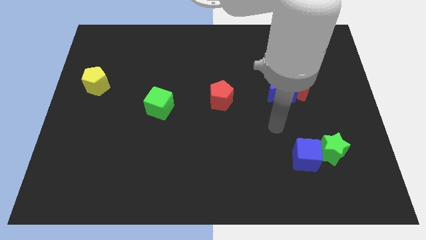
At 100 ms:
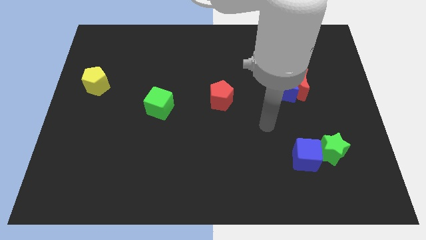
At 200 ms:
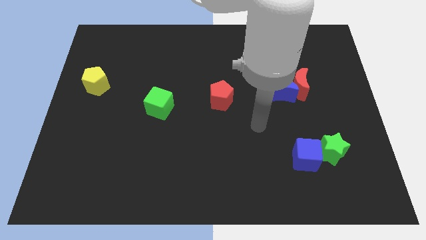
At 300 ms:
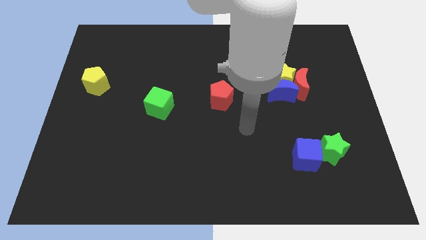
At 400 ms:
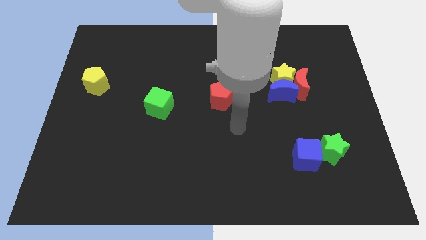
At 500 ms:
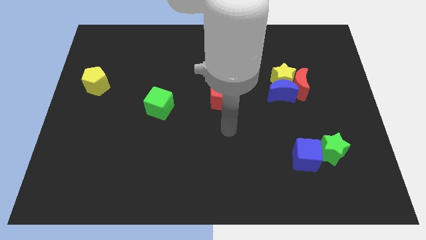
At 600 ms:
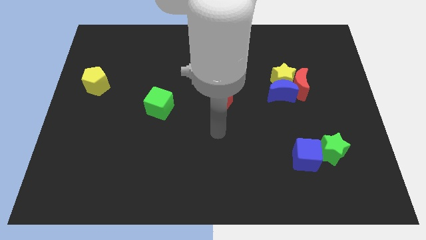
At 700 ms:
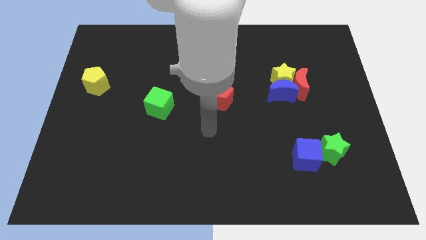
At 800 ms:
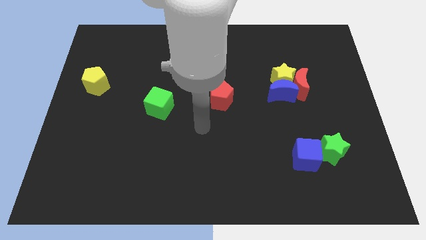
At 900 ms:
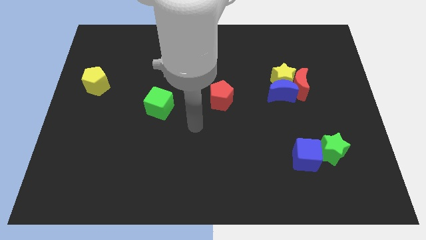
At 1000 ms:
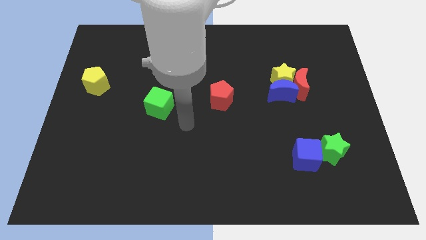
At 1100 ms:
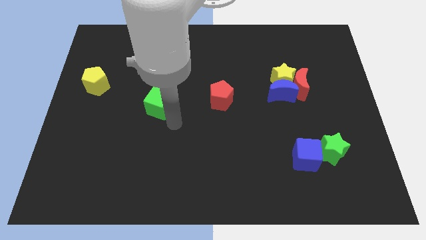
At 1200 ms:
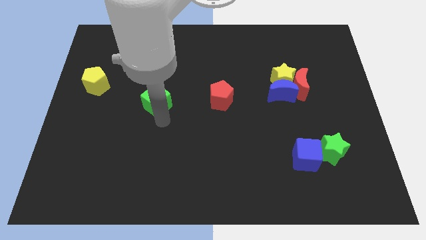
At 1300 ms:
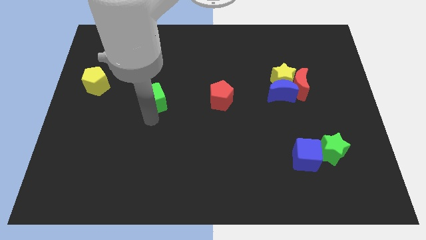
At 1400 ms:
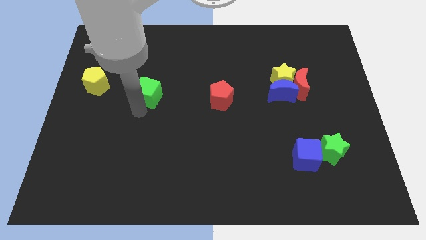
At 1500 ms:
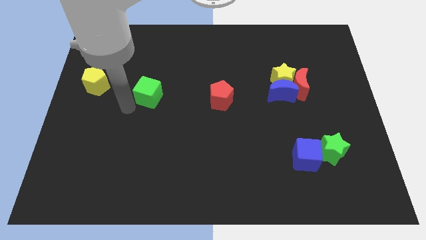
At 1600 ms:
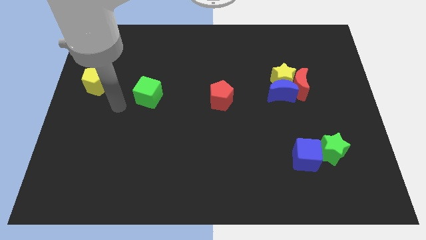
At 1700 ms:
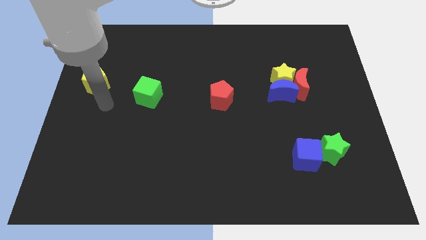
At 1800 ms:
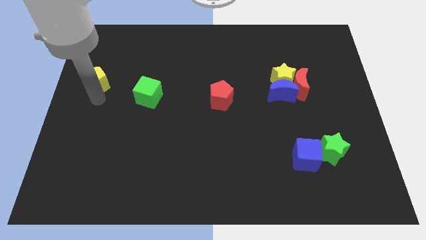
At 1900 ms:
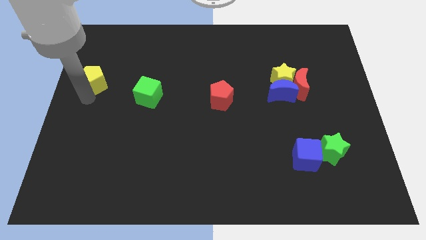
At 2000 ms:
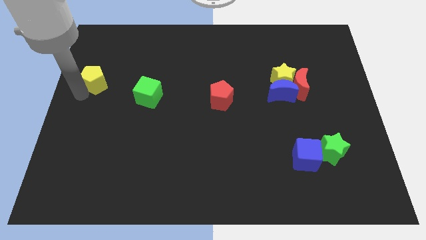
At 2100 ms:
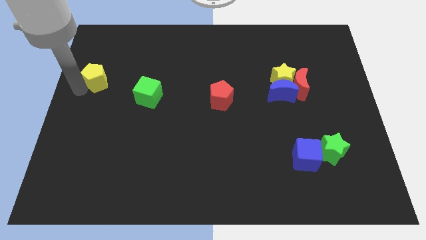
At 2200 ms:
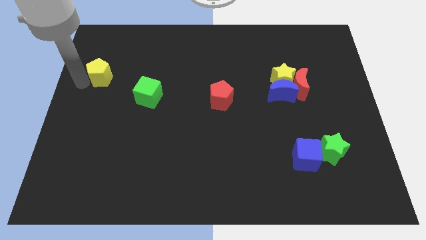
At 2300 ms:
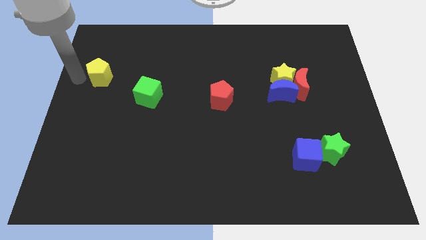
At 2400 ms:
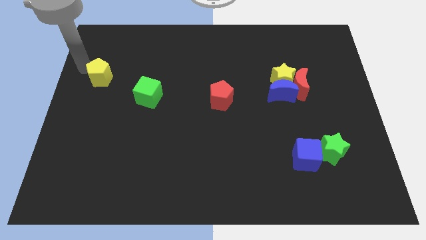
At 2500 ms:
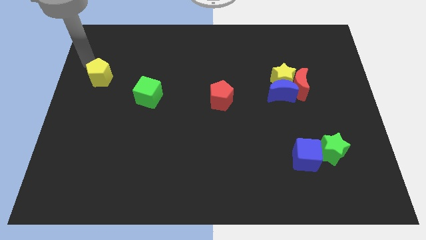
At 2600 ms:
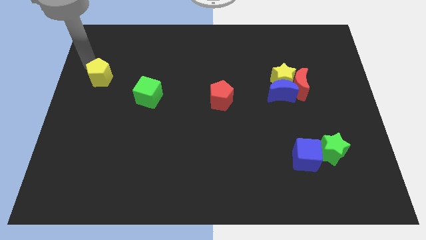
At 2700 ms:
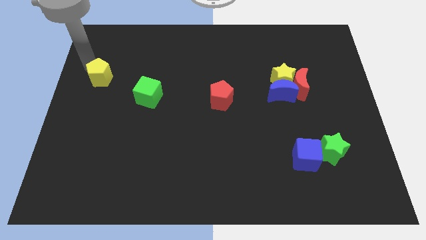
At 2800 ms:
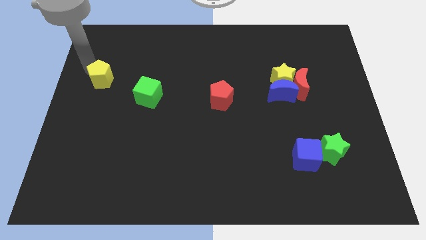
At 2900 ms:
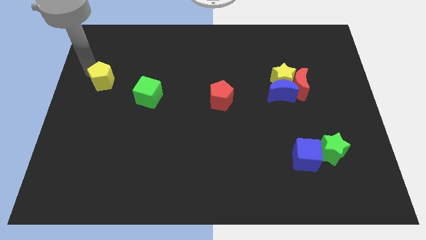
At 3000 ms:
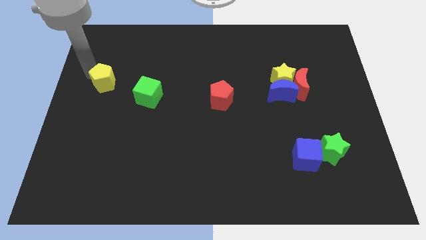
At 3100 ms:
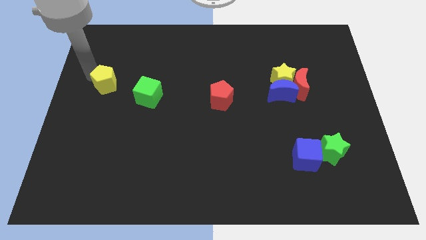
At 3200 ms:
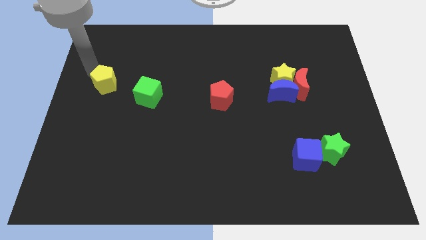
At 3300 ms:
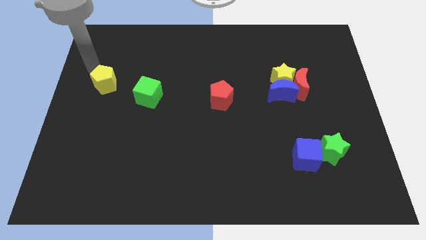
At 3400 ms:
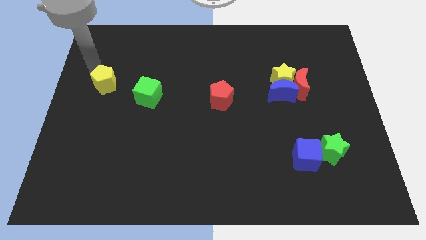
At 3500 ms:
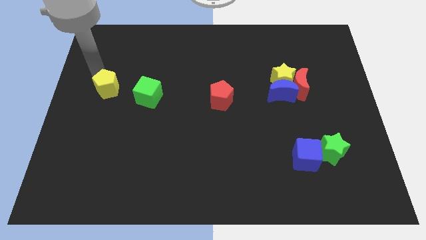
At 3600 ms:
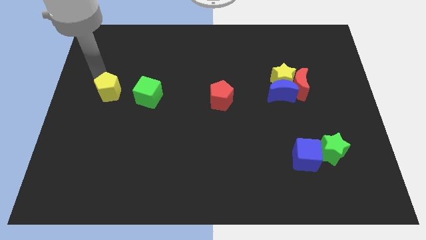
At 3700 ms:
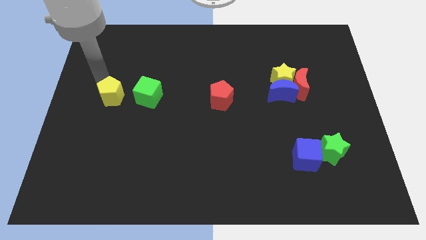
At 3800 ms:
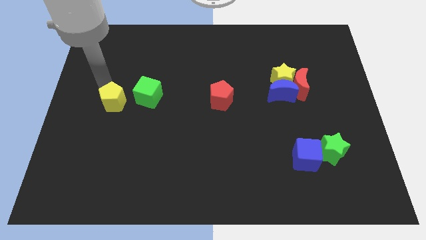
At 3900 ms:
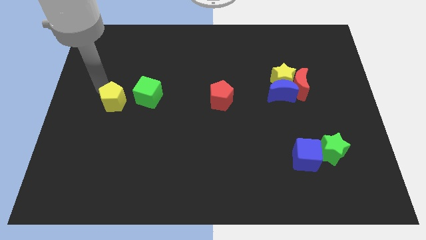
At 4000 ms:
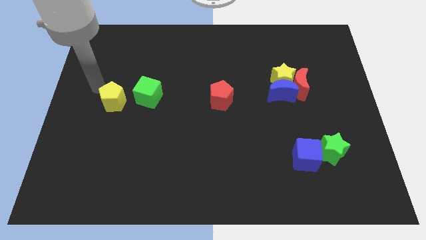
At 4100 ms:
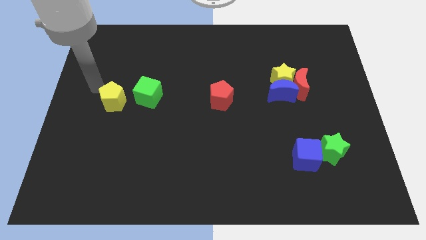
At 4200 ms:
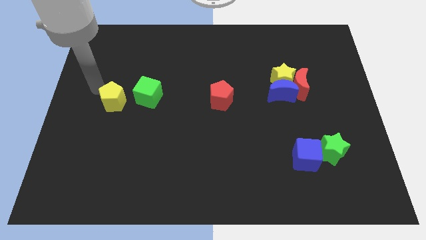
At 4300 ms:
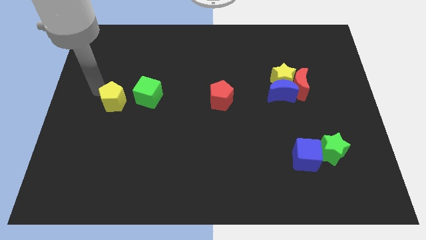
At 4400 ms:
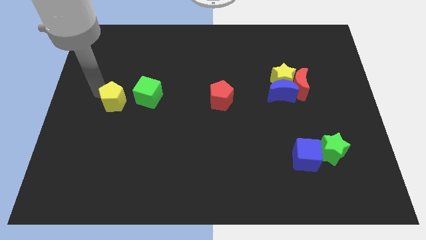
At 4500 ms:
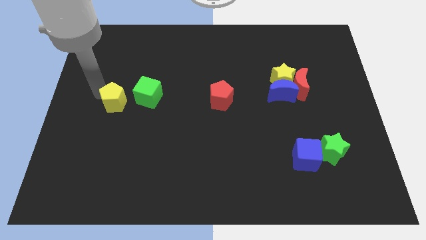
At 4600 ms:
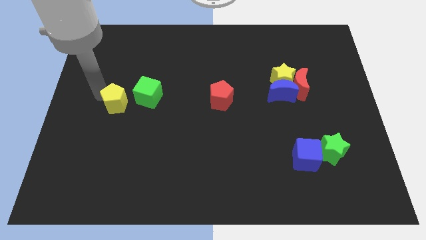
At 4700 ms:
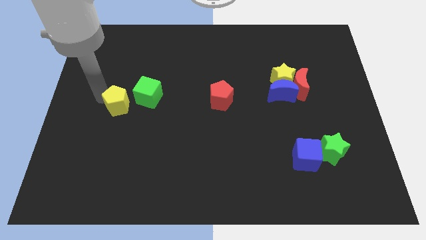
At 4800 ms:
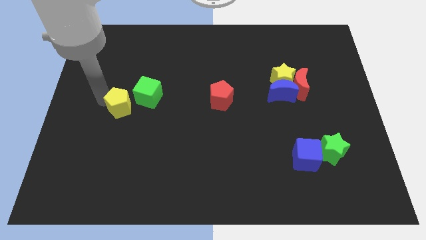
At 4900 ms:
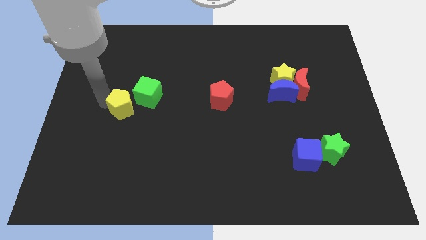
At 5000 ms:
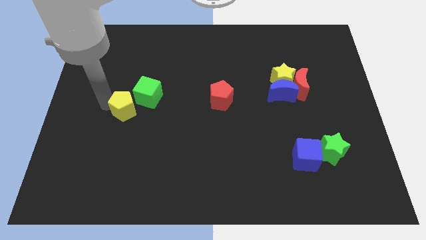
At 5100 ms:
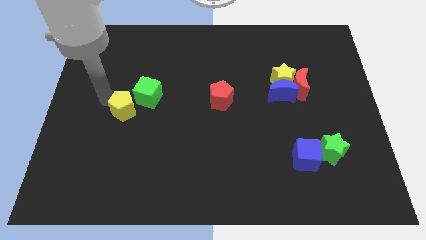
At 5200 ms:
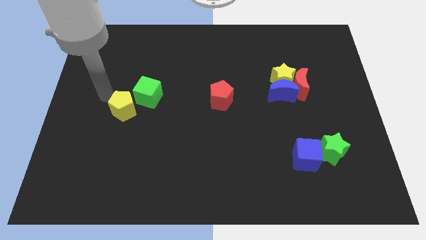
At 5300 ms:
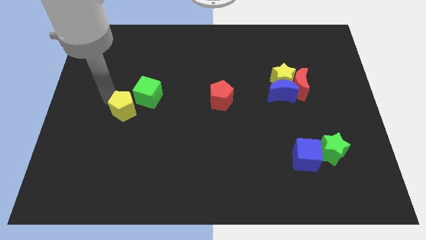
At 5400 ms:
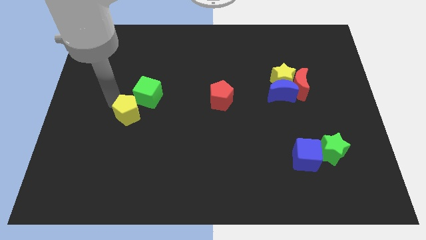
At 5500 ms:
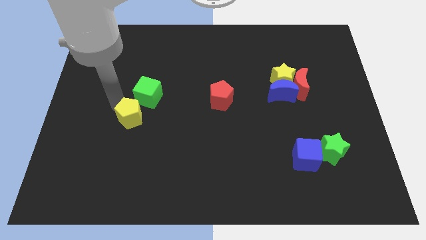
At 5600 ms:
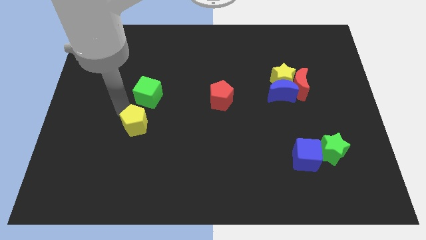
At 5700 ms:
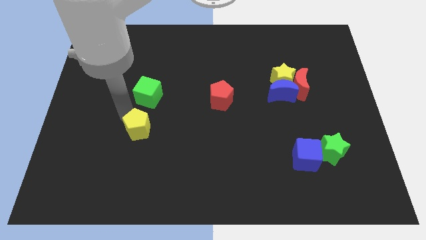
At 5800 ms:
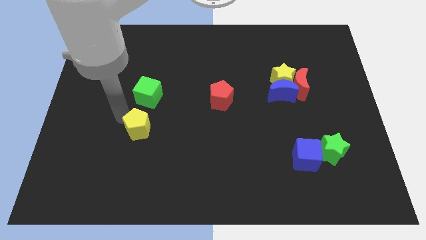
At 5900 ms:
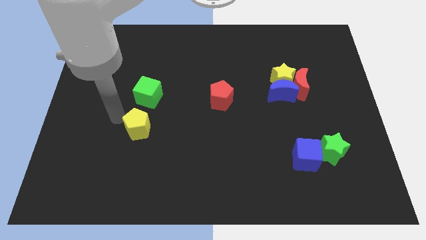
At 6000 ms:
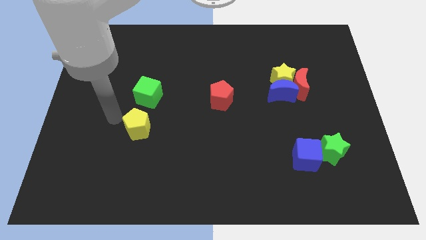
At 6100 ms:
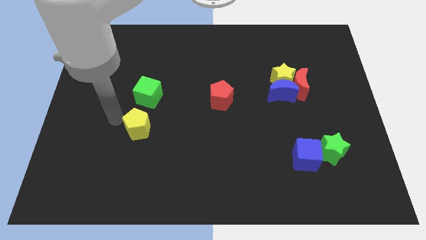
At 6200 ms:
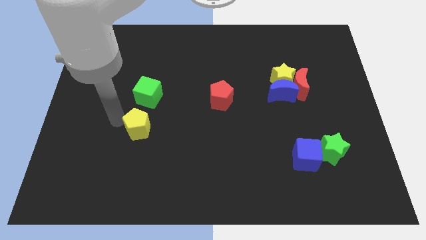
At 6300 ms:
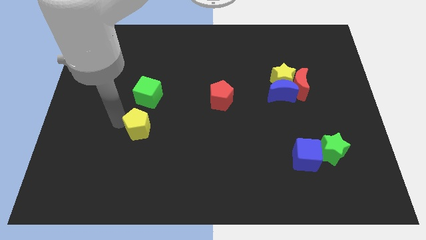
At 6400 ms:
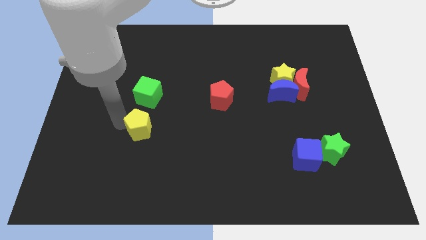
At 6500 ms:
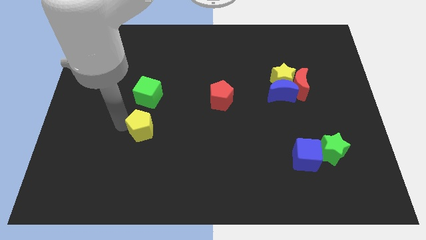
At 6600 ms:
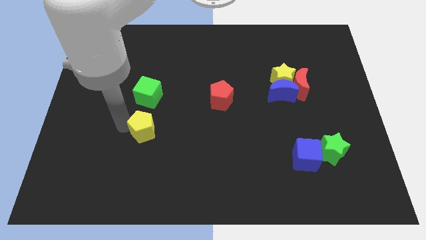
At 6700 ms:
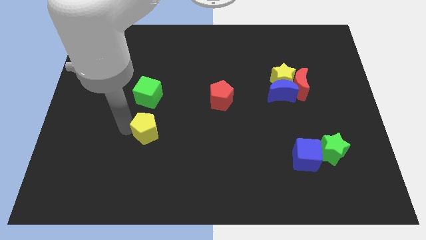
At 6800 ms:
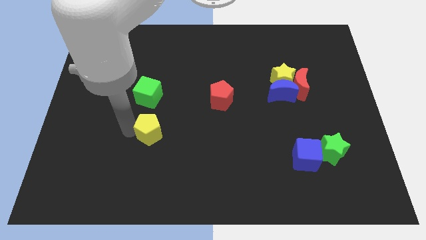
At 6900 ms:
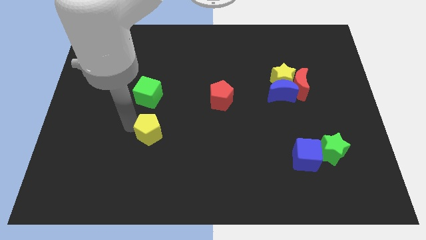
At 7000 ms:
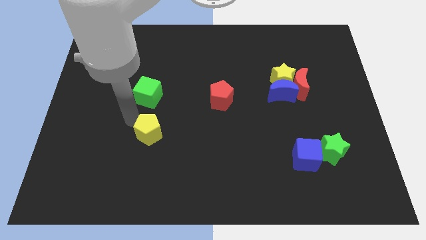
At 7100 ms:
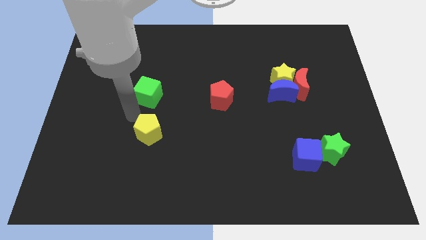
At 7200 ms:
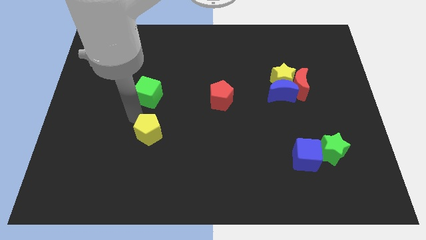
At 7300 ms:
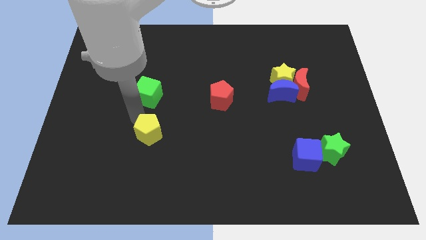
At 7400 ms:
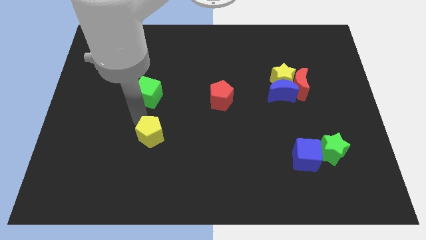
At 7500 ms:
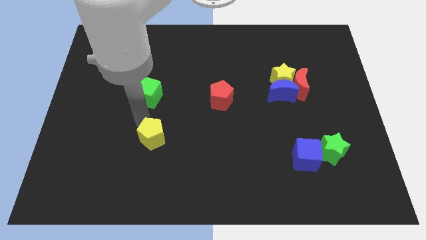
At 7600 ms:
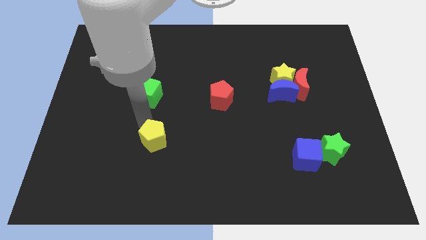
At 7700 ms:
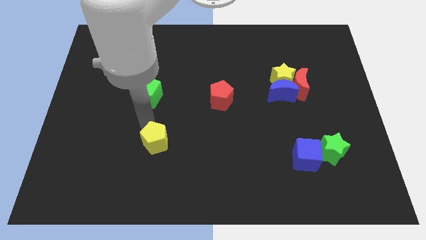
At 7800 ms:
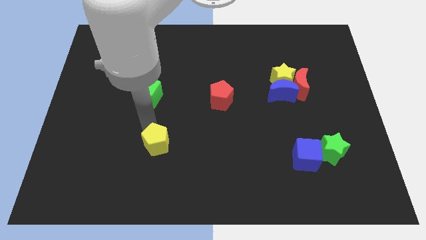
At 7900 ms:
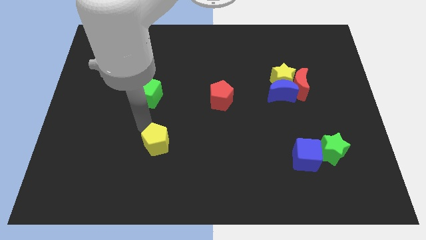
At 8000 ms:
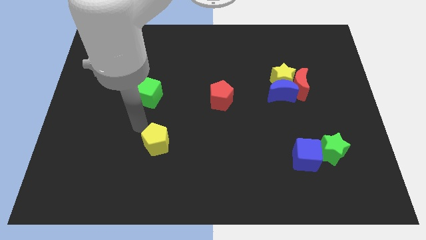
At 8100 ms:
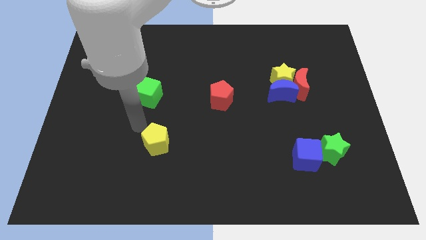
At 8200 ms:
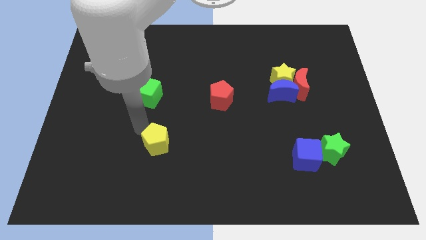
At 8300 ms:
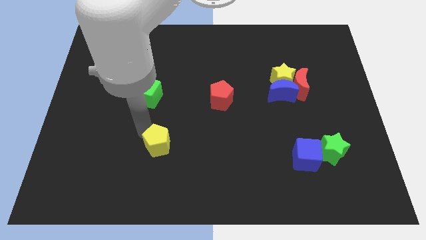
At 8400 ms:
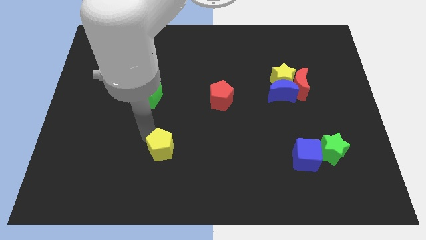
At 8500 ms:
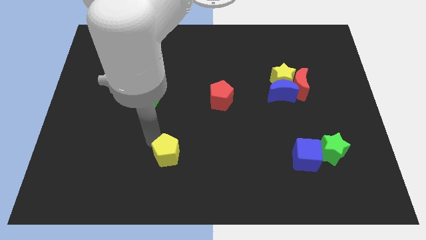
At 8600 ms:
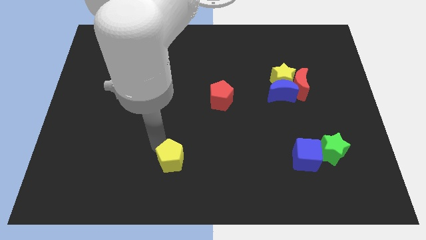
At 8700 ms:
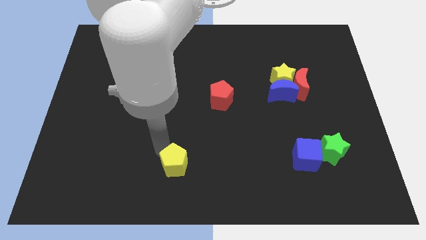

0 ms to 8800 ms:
slide the yellow pentagon to the bottom side
